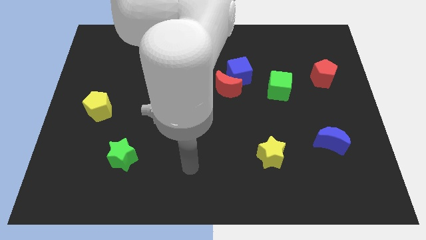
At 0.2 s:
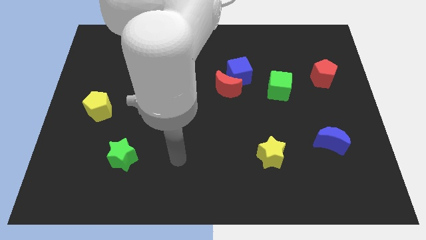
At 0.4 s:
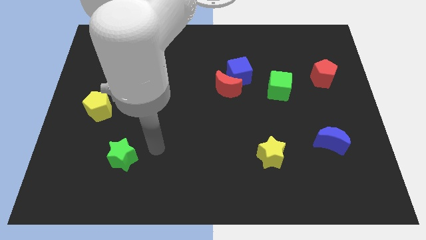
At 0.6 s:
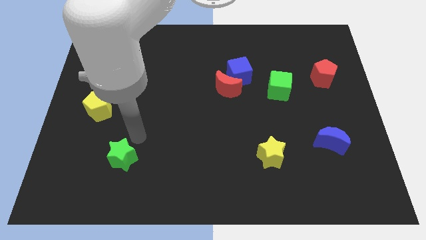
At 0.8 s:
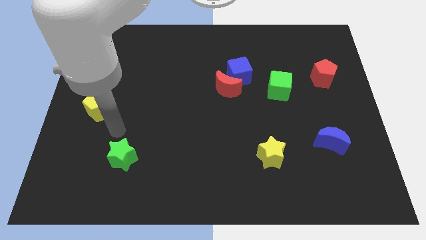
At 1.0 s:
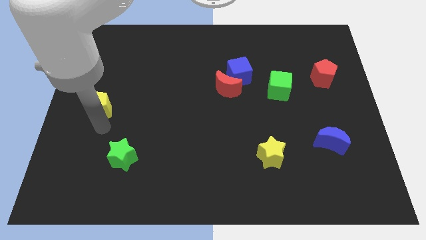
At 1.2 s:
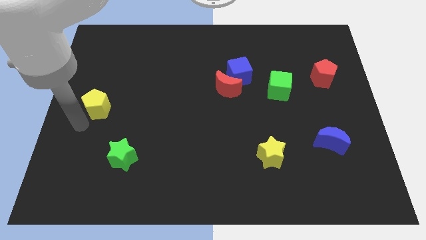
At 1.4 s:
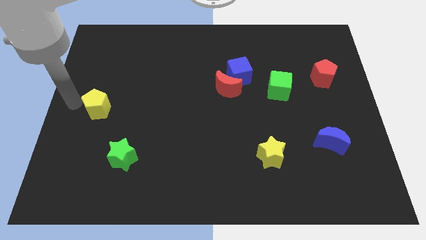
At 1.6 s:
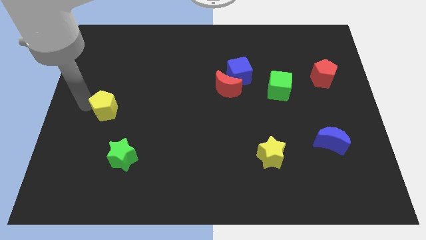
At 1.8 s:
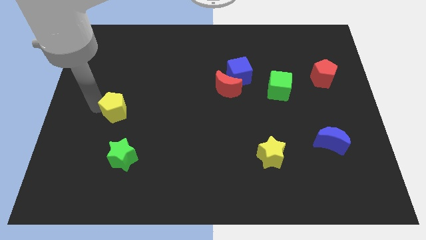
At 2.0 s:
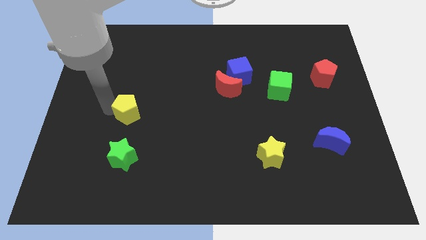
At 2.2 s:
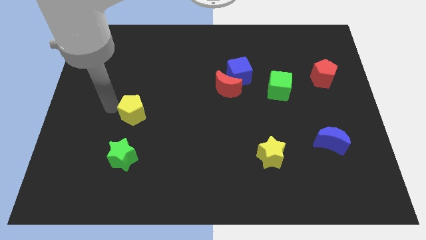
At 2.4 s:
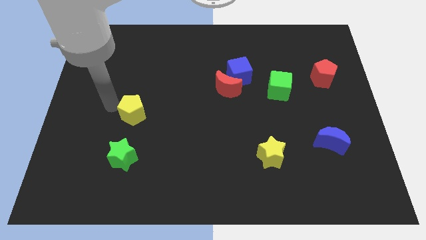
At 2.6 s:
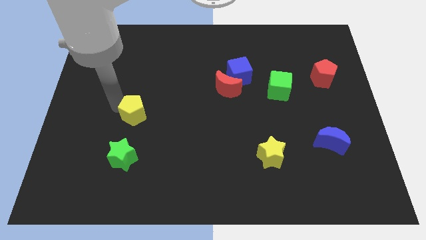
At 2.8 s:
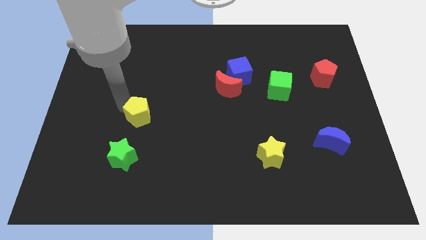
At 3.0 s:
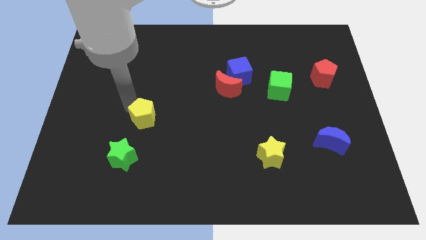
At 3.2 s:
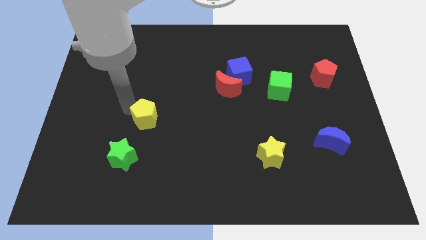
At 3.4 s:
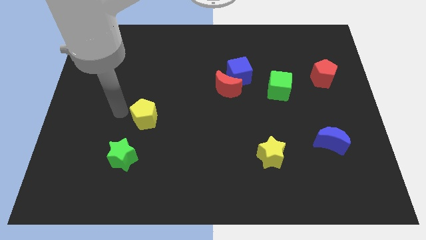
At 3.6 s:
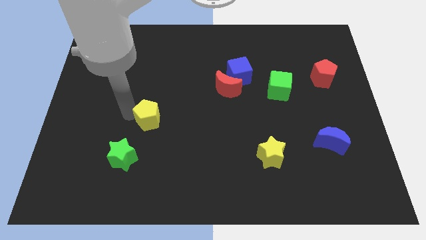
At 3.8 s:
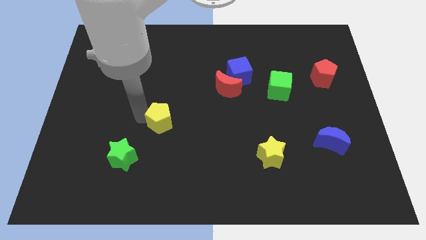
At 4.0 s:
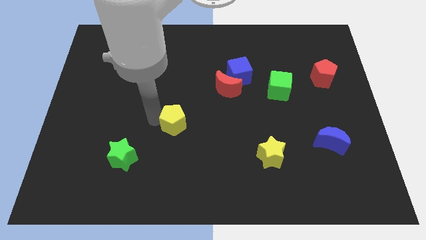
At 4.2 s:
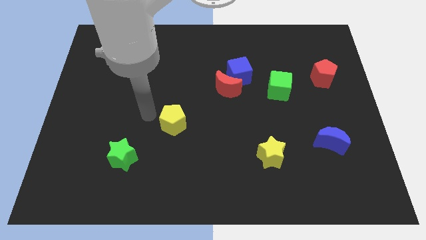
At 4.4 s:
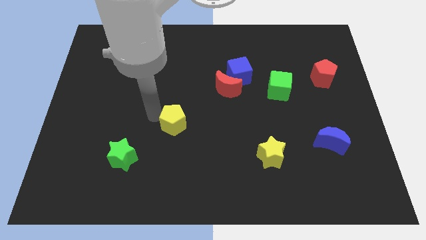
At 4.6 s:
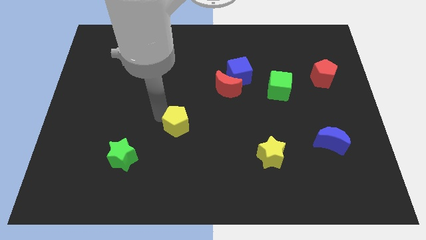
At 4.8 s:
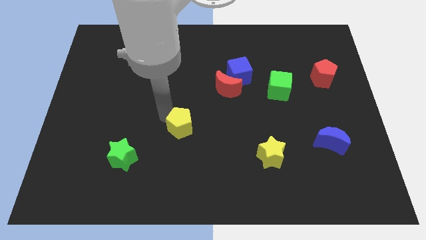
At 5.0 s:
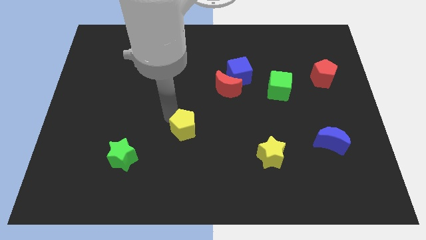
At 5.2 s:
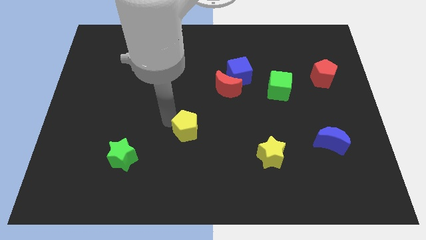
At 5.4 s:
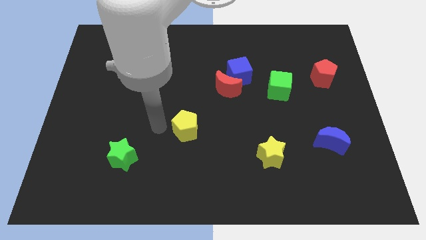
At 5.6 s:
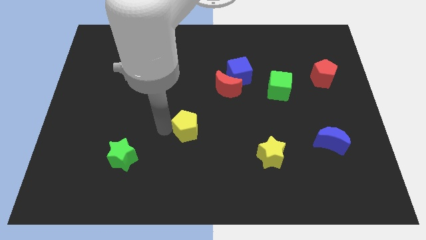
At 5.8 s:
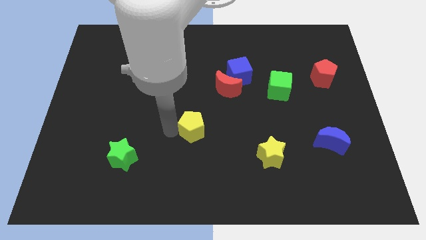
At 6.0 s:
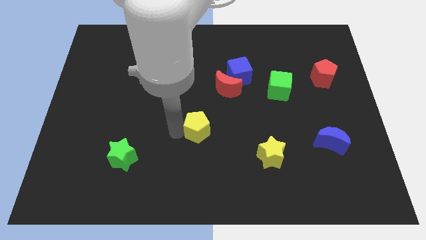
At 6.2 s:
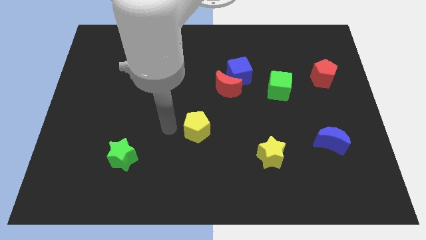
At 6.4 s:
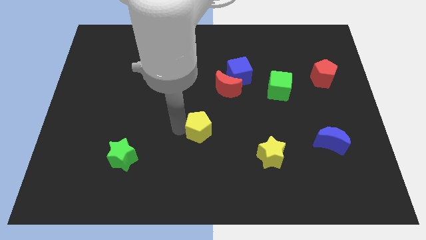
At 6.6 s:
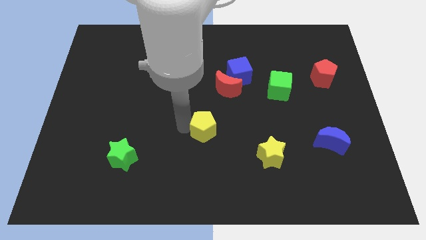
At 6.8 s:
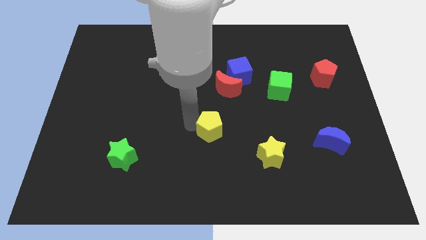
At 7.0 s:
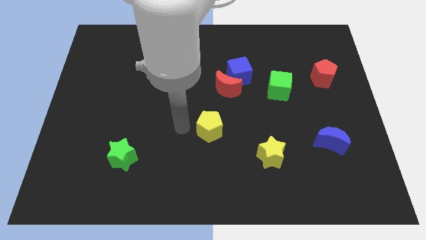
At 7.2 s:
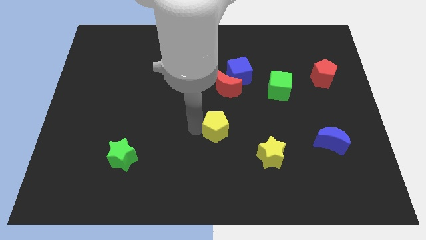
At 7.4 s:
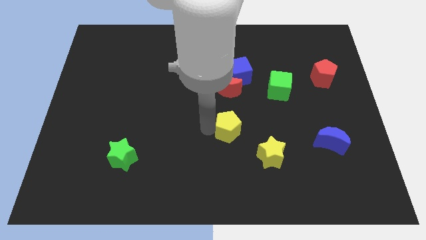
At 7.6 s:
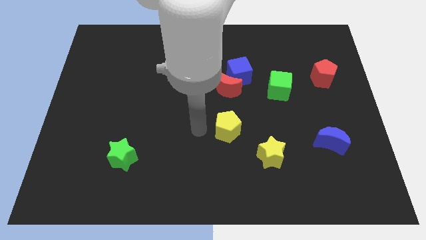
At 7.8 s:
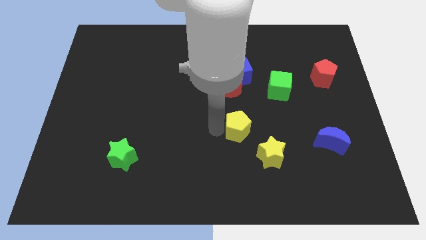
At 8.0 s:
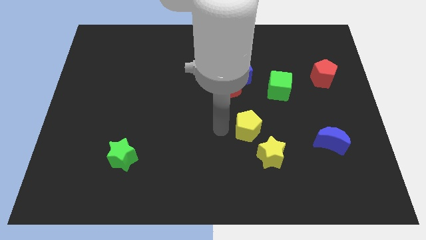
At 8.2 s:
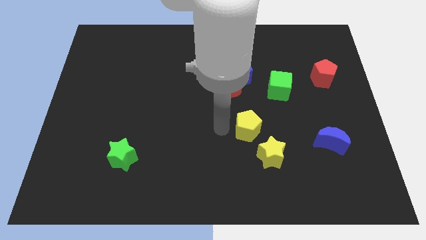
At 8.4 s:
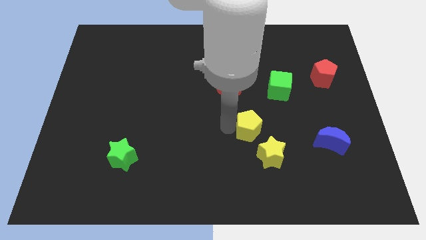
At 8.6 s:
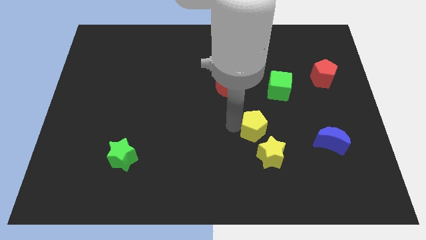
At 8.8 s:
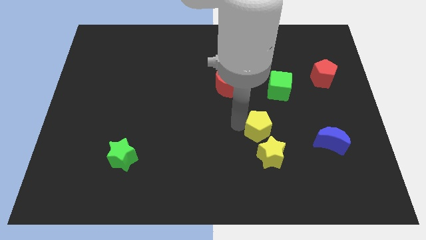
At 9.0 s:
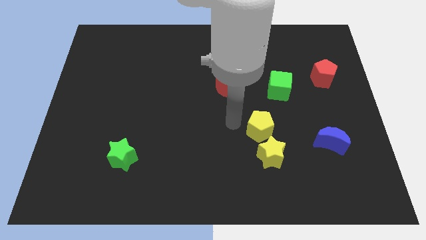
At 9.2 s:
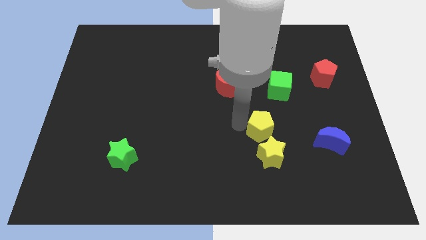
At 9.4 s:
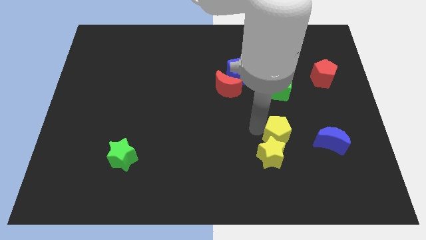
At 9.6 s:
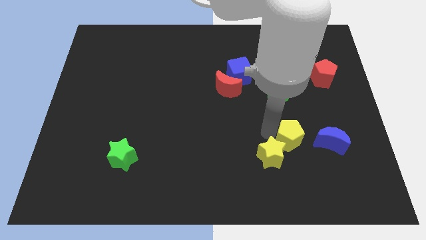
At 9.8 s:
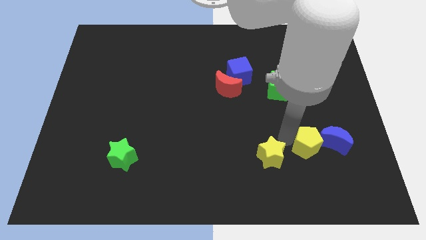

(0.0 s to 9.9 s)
put the yellow pentagon next to the blue moon

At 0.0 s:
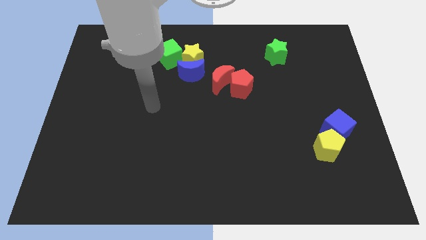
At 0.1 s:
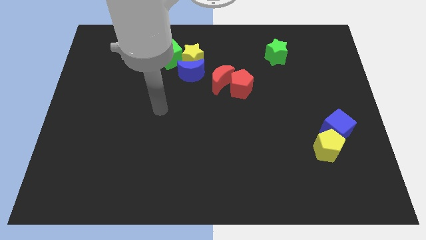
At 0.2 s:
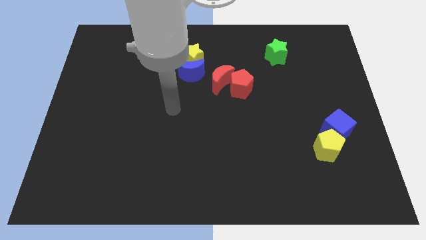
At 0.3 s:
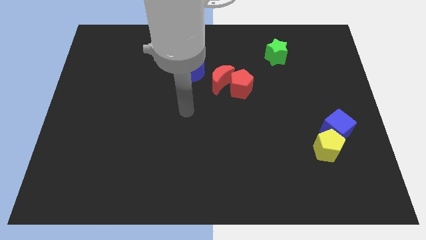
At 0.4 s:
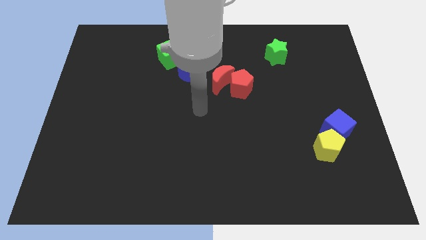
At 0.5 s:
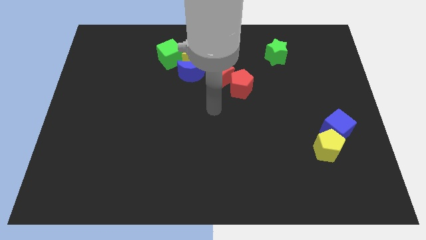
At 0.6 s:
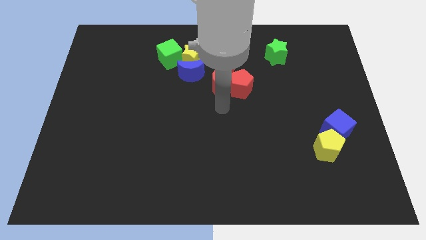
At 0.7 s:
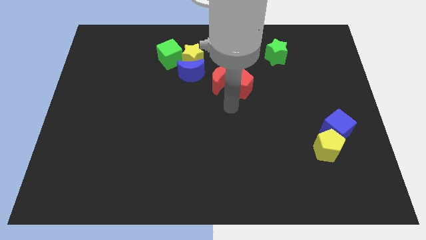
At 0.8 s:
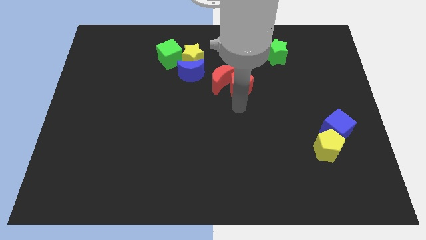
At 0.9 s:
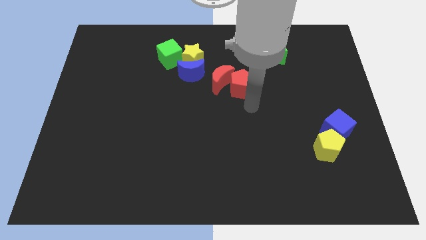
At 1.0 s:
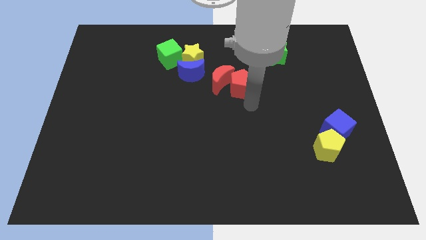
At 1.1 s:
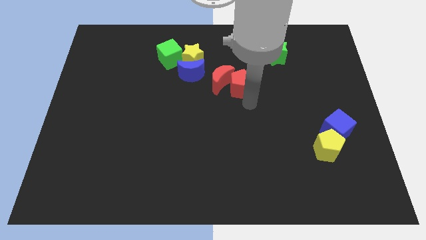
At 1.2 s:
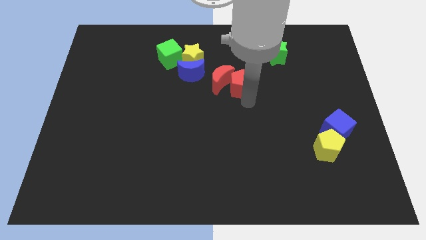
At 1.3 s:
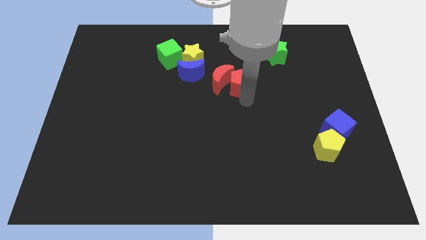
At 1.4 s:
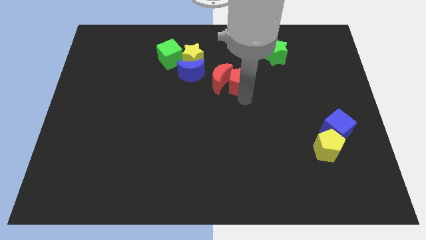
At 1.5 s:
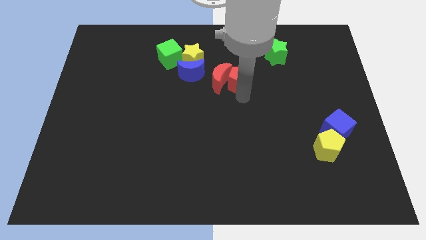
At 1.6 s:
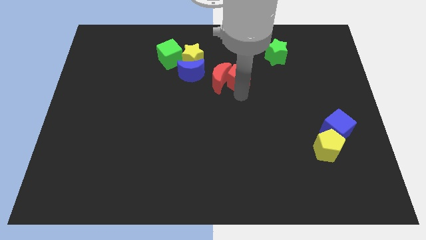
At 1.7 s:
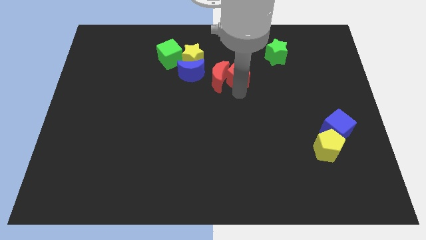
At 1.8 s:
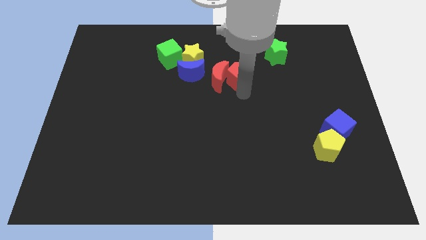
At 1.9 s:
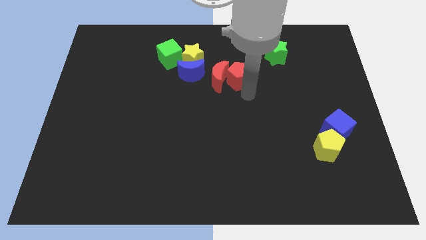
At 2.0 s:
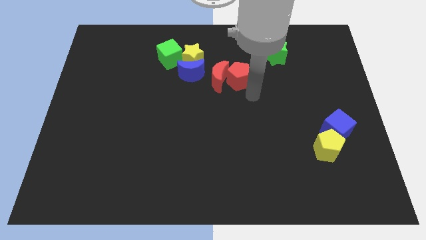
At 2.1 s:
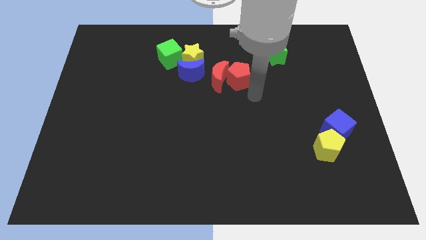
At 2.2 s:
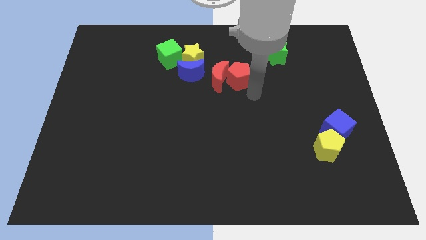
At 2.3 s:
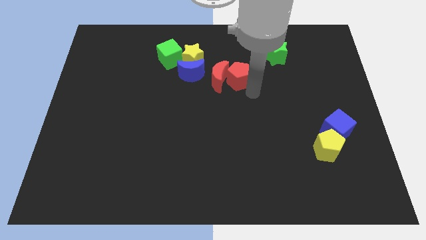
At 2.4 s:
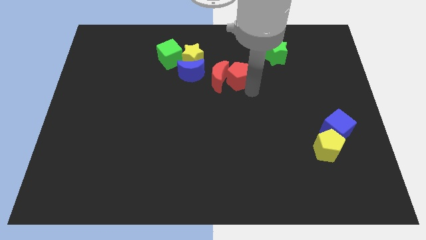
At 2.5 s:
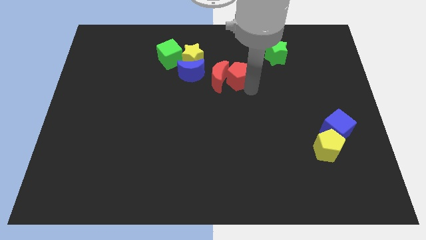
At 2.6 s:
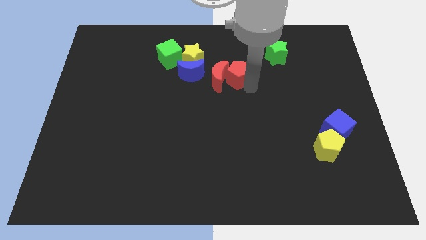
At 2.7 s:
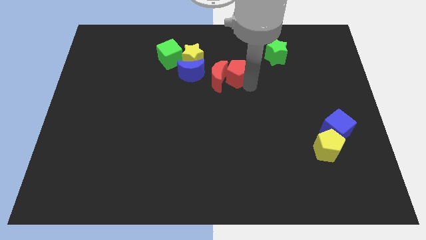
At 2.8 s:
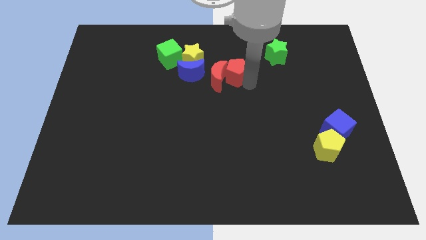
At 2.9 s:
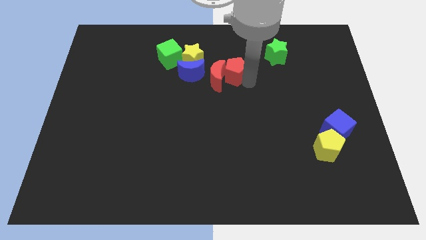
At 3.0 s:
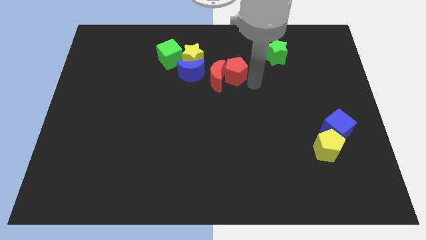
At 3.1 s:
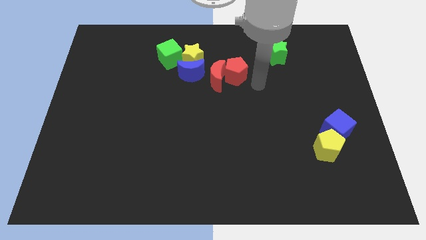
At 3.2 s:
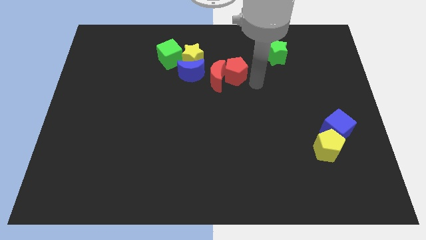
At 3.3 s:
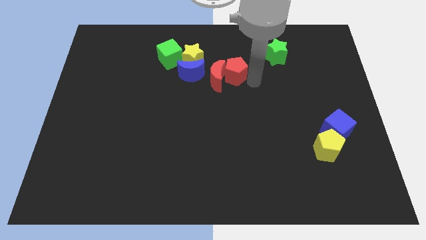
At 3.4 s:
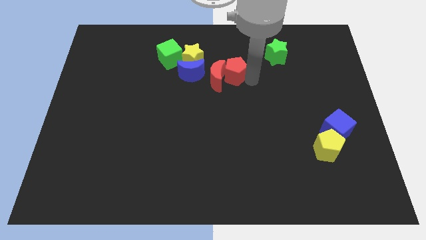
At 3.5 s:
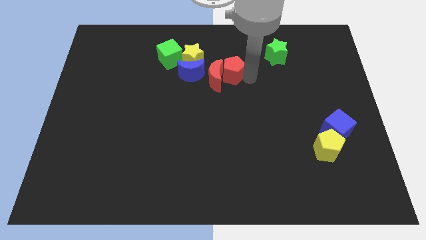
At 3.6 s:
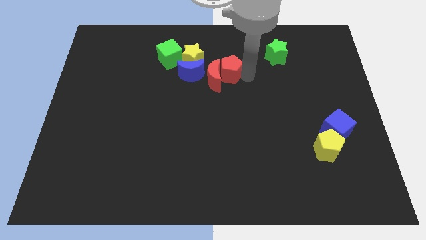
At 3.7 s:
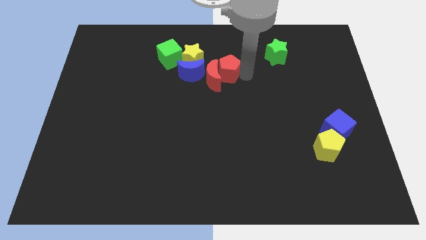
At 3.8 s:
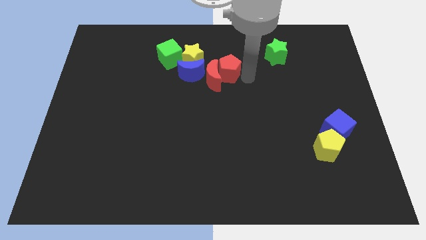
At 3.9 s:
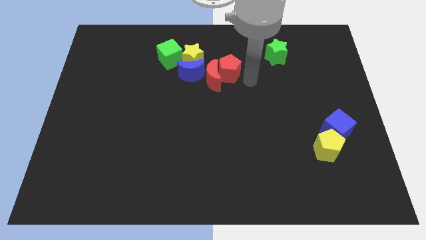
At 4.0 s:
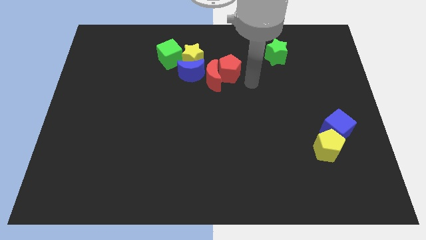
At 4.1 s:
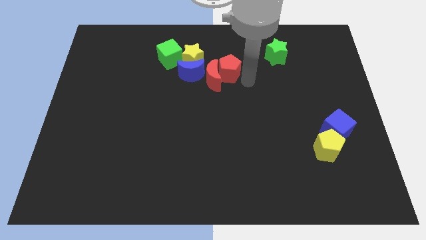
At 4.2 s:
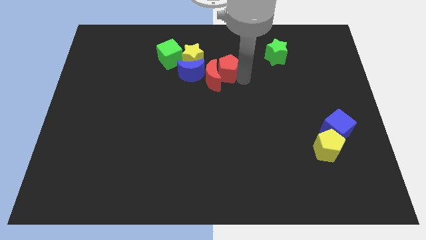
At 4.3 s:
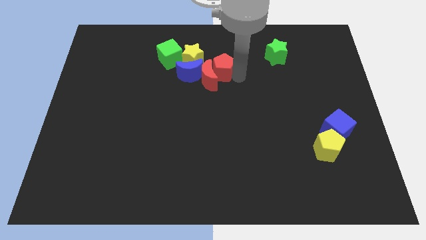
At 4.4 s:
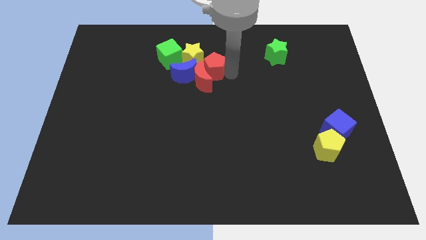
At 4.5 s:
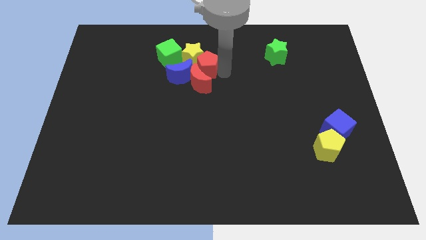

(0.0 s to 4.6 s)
put the red pentagon close to the yellow star
